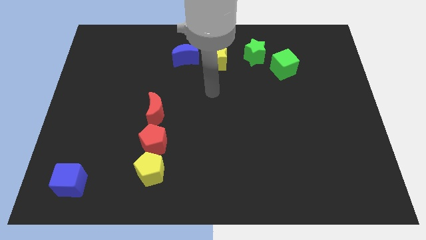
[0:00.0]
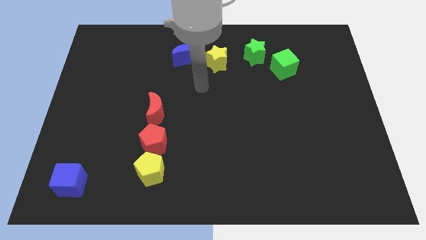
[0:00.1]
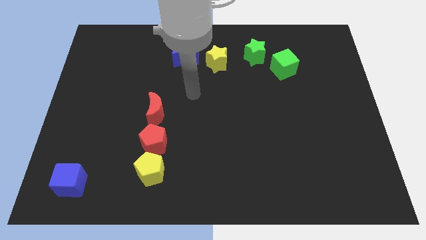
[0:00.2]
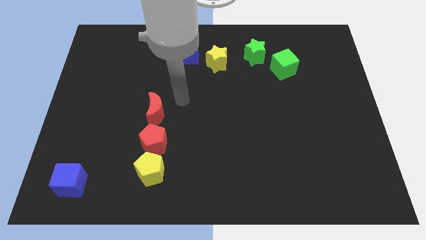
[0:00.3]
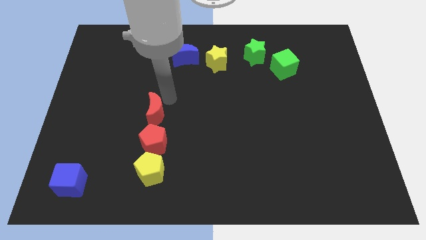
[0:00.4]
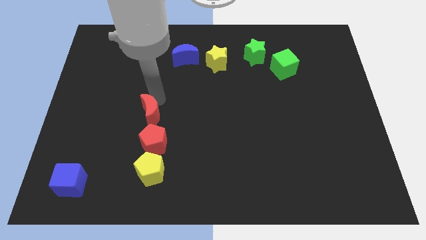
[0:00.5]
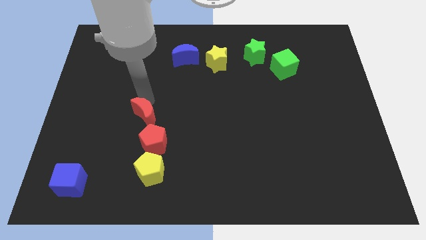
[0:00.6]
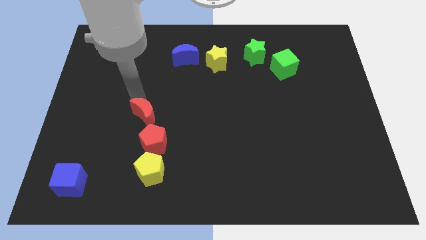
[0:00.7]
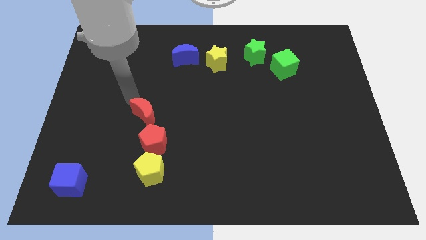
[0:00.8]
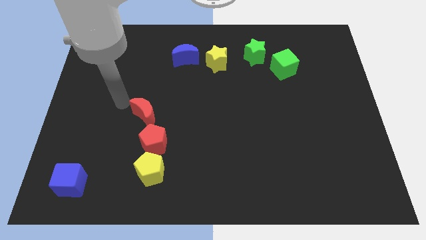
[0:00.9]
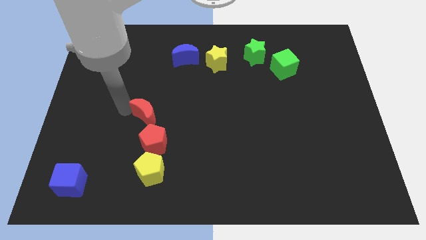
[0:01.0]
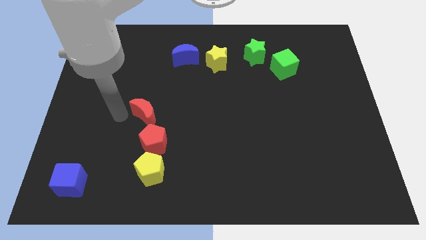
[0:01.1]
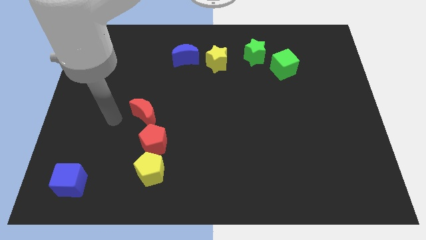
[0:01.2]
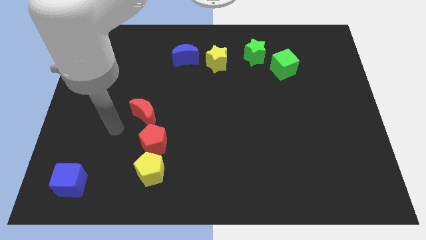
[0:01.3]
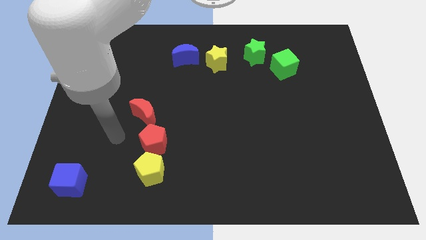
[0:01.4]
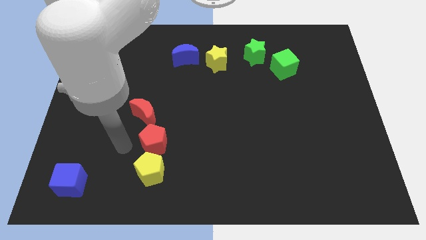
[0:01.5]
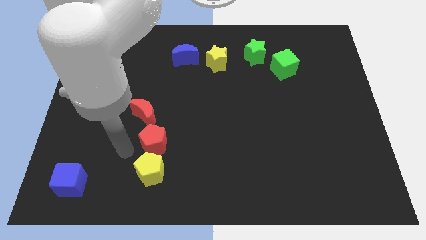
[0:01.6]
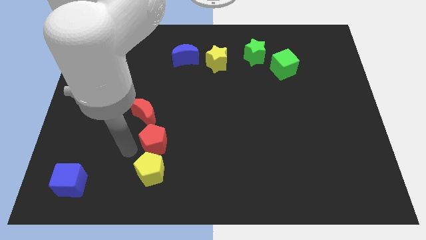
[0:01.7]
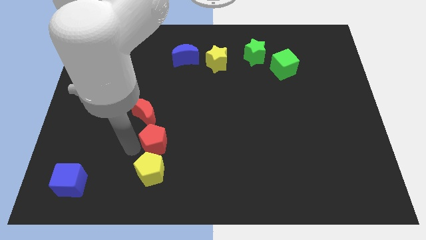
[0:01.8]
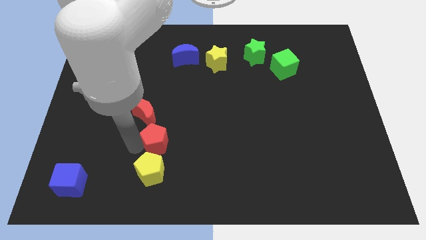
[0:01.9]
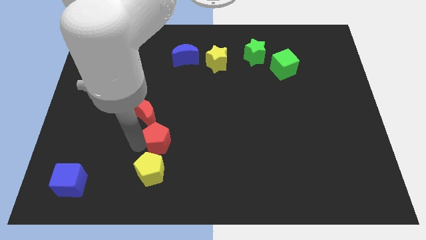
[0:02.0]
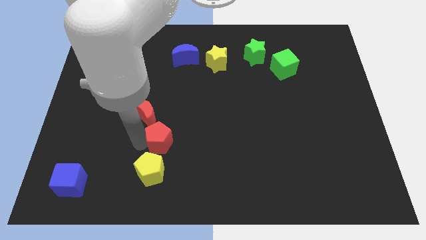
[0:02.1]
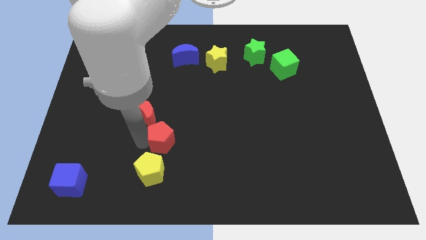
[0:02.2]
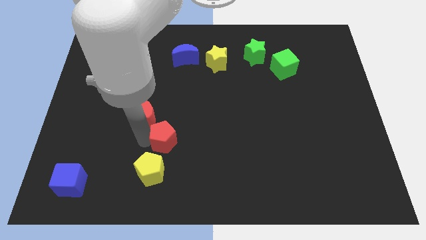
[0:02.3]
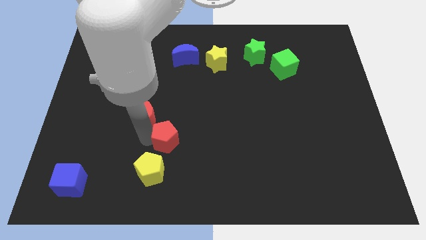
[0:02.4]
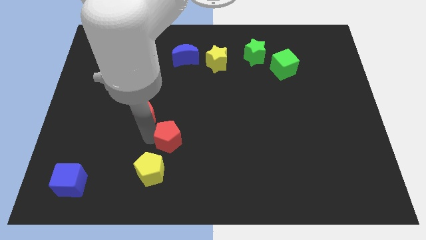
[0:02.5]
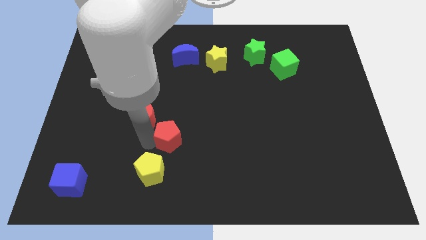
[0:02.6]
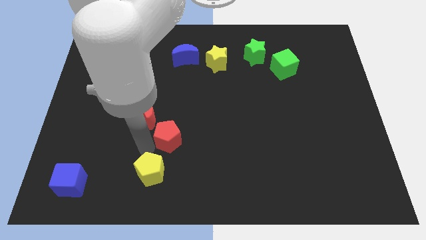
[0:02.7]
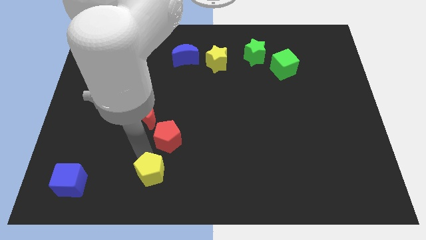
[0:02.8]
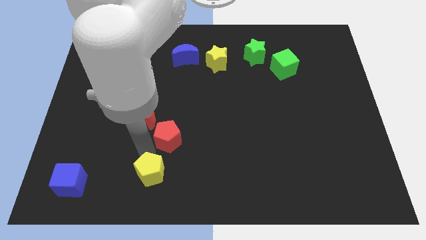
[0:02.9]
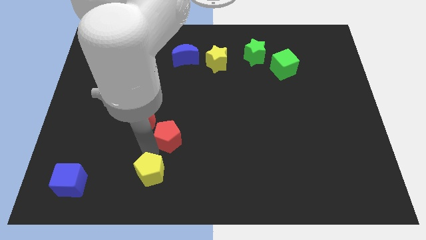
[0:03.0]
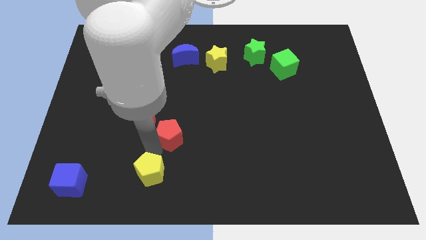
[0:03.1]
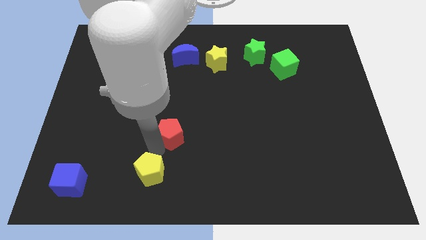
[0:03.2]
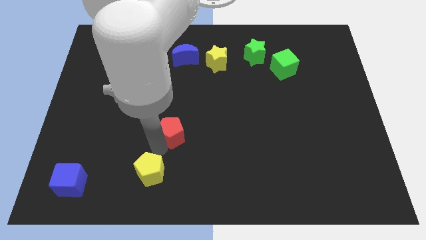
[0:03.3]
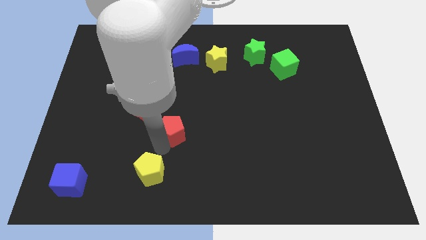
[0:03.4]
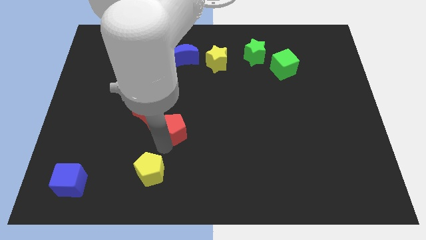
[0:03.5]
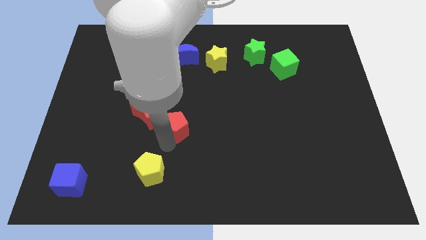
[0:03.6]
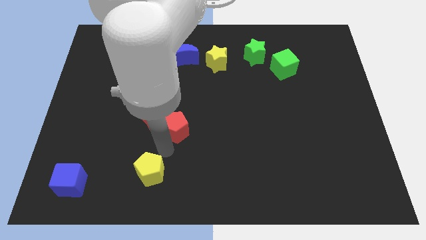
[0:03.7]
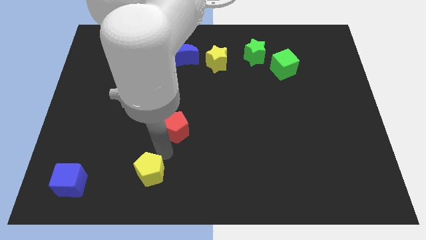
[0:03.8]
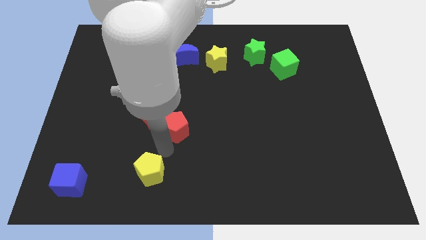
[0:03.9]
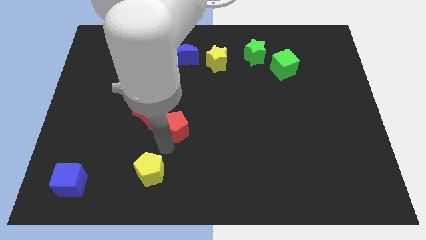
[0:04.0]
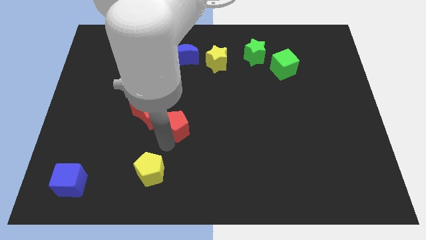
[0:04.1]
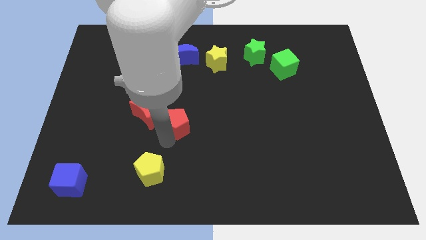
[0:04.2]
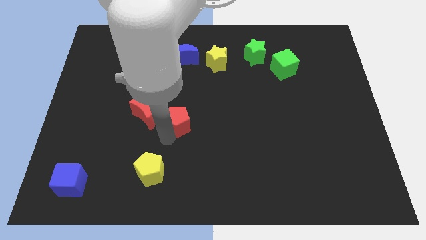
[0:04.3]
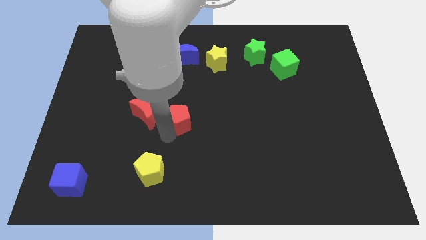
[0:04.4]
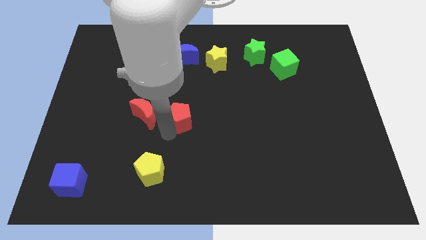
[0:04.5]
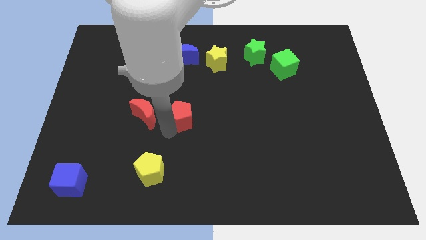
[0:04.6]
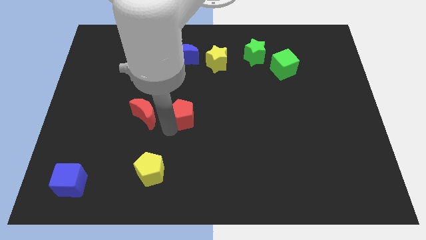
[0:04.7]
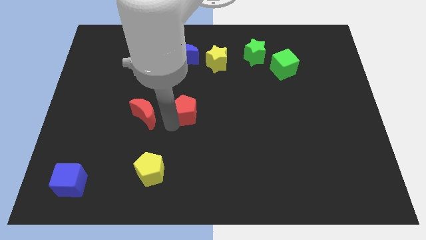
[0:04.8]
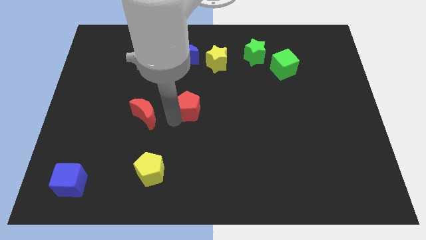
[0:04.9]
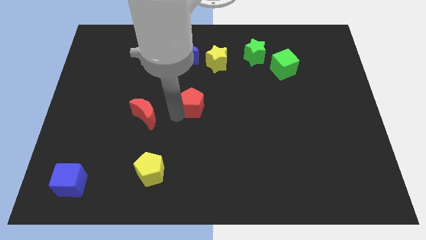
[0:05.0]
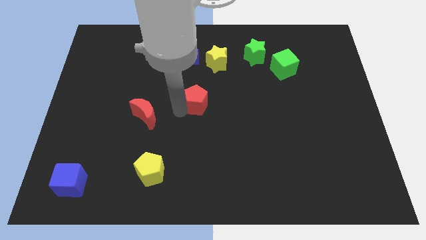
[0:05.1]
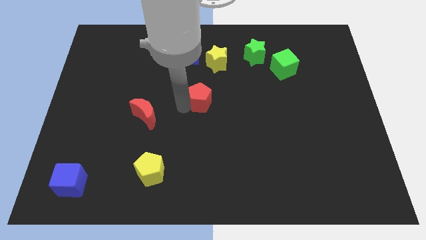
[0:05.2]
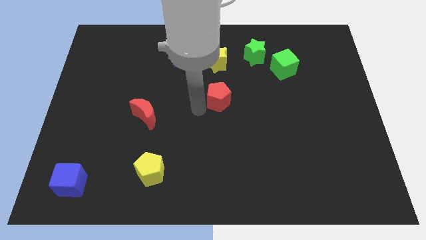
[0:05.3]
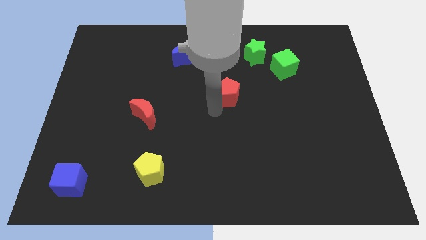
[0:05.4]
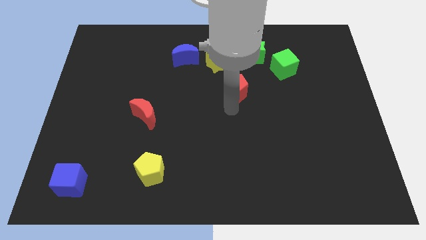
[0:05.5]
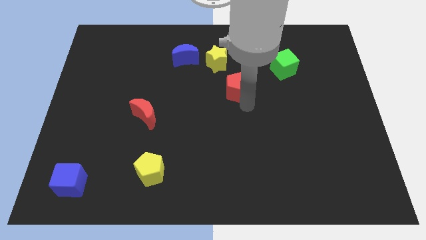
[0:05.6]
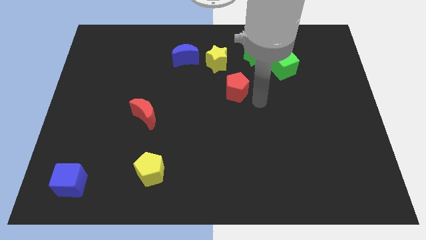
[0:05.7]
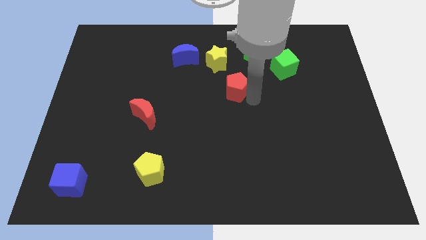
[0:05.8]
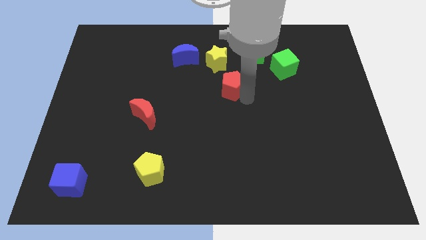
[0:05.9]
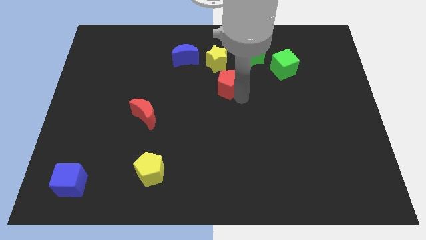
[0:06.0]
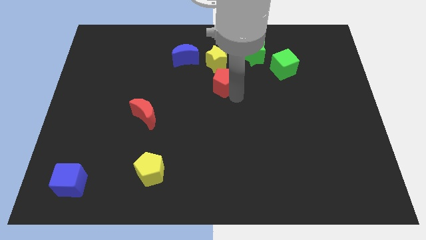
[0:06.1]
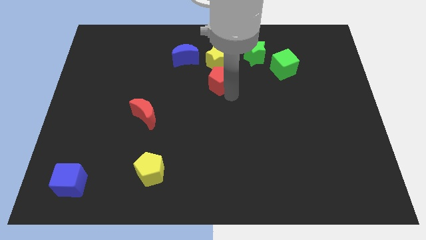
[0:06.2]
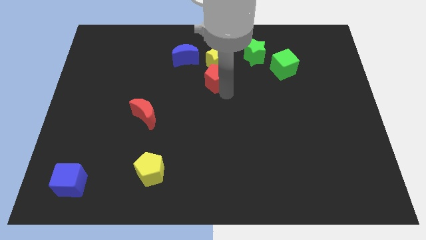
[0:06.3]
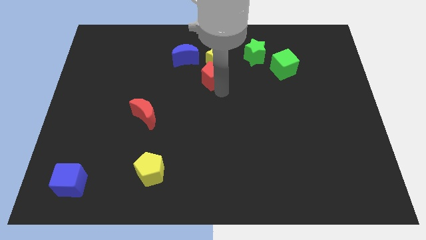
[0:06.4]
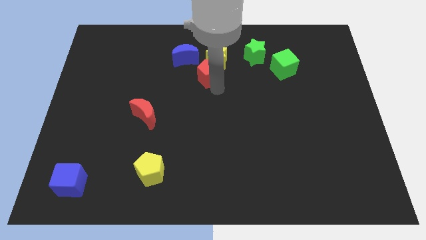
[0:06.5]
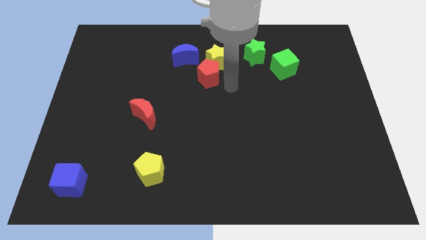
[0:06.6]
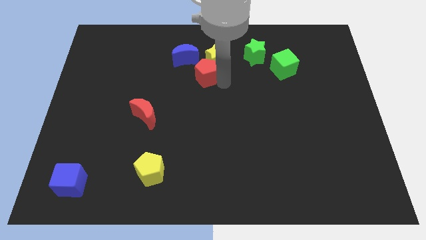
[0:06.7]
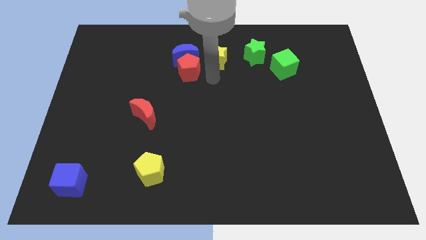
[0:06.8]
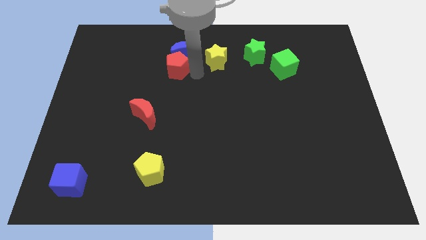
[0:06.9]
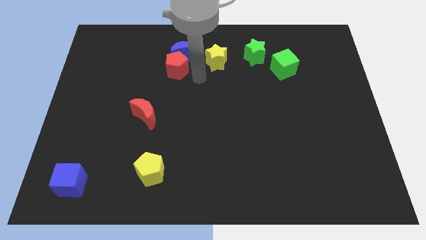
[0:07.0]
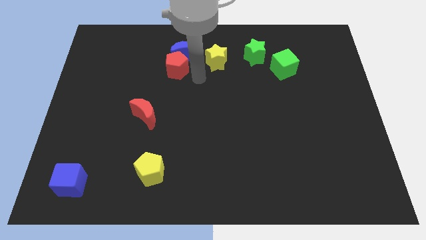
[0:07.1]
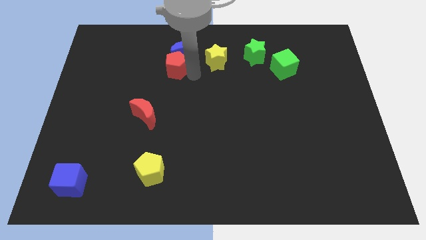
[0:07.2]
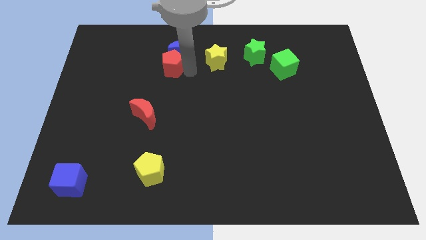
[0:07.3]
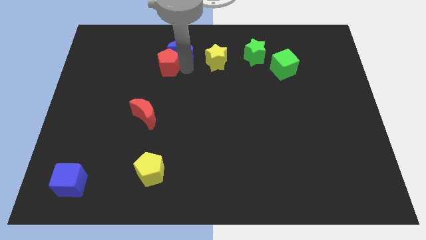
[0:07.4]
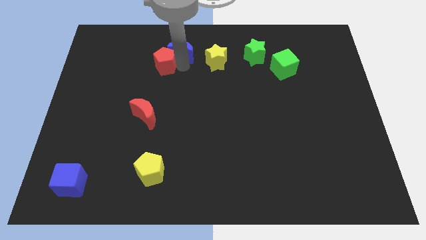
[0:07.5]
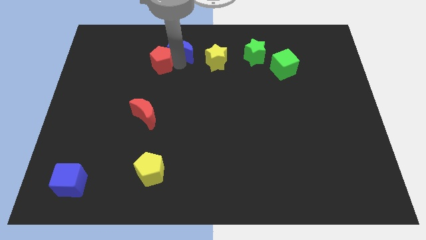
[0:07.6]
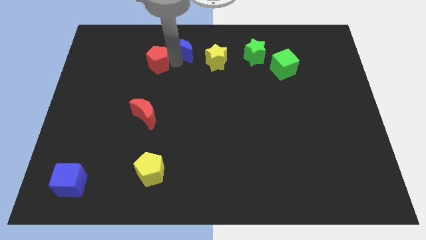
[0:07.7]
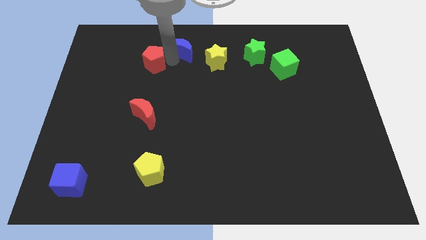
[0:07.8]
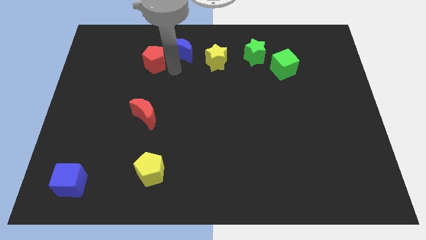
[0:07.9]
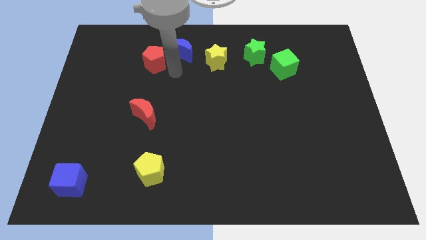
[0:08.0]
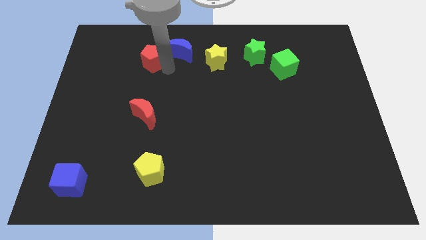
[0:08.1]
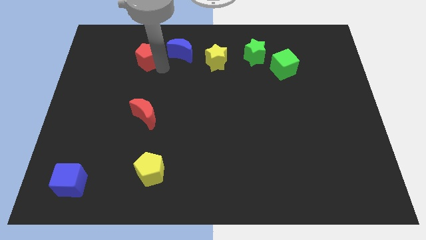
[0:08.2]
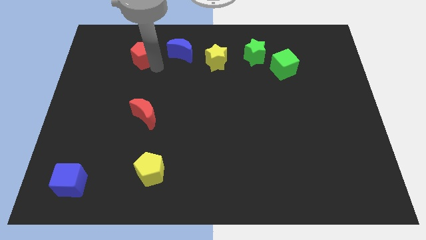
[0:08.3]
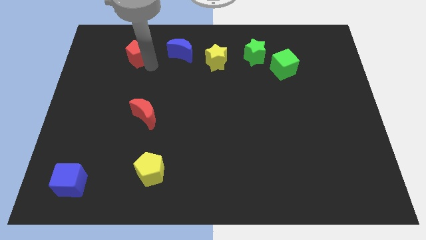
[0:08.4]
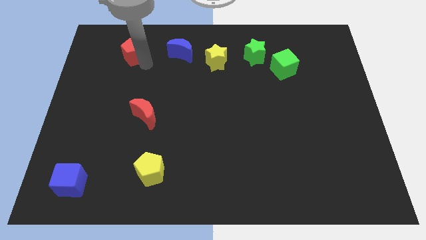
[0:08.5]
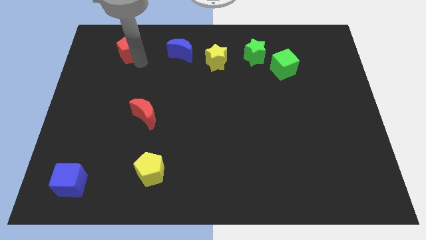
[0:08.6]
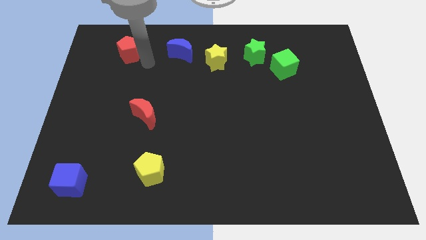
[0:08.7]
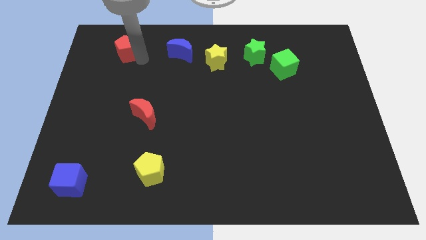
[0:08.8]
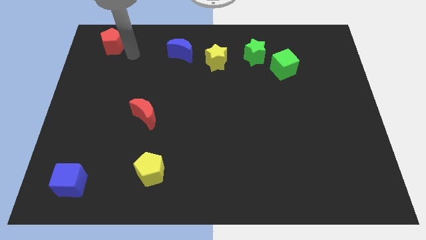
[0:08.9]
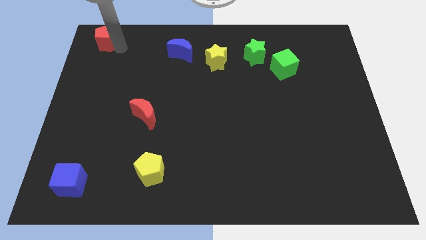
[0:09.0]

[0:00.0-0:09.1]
slide the red pentagon to the top left corner
